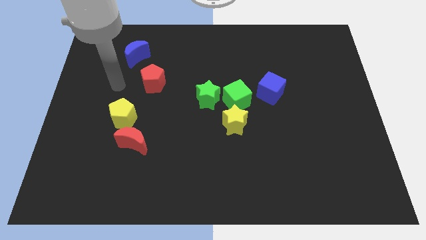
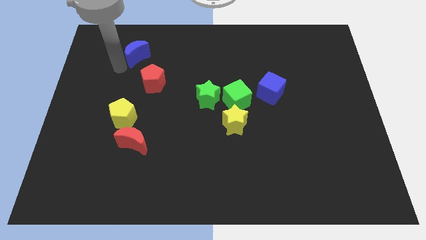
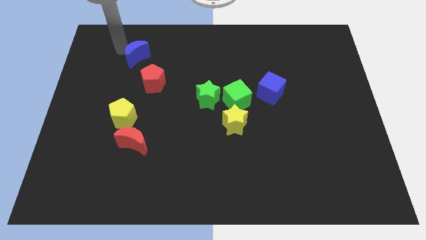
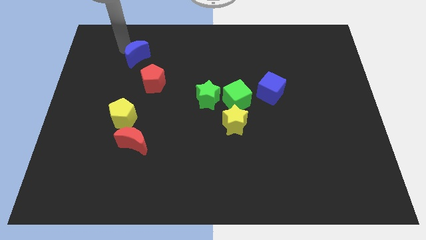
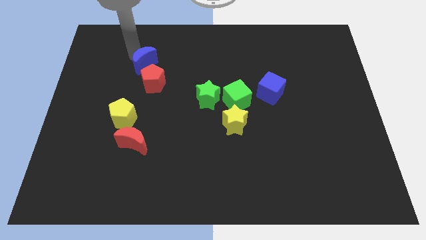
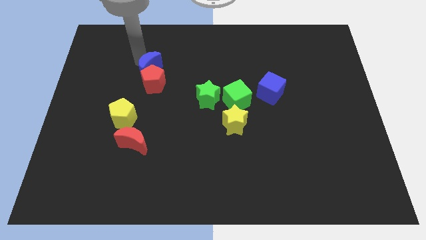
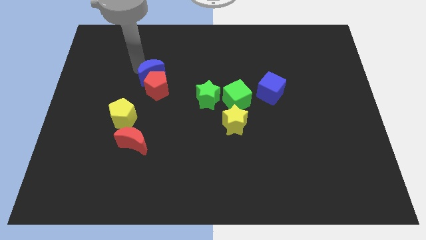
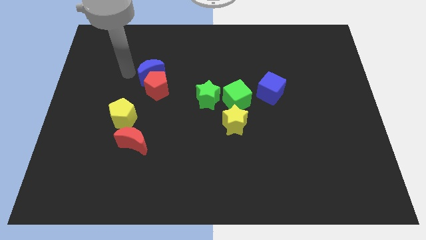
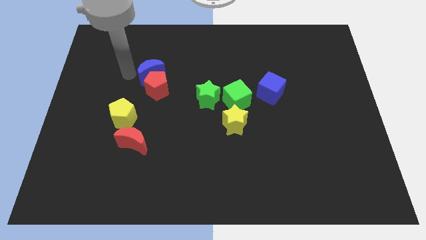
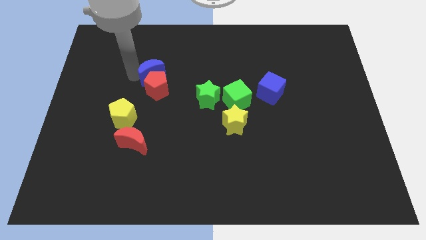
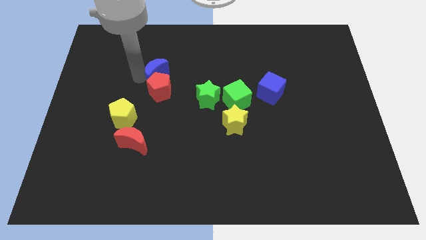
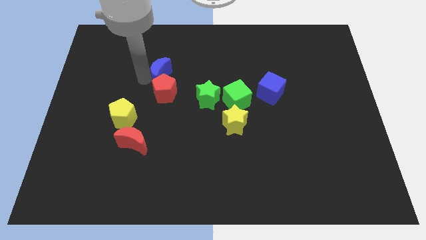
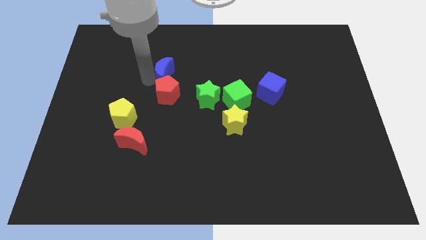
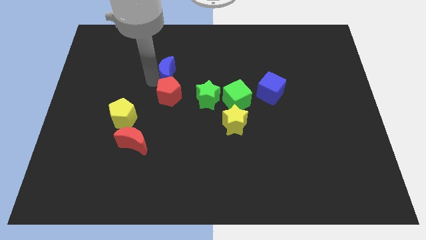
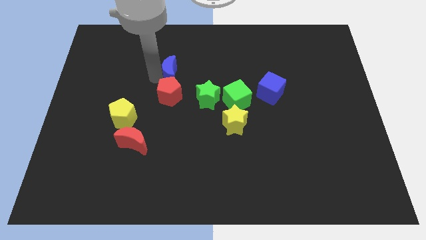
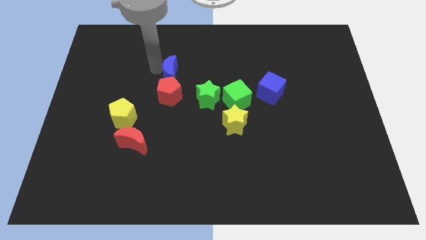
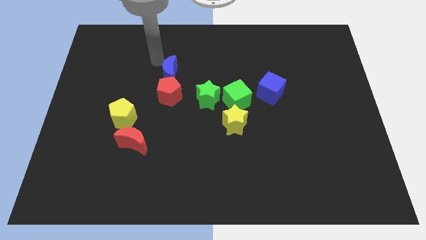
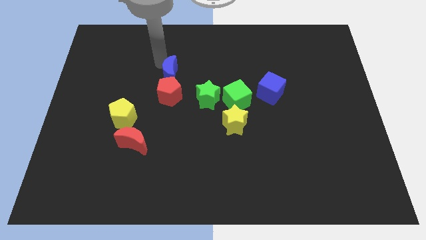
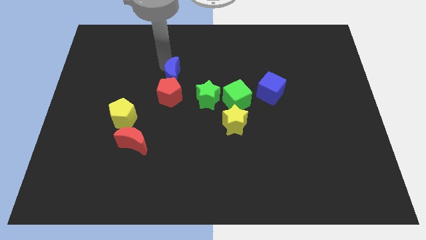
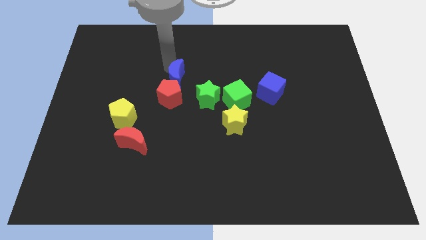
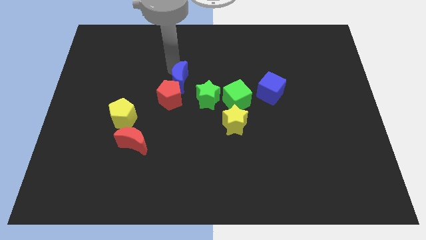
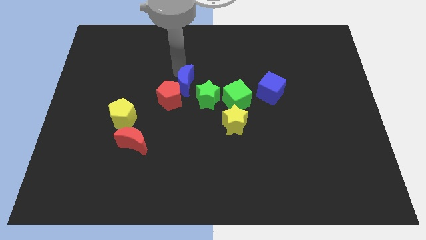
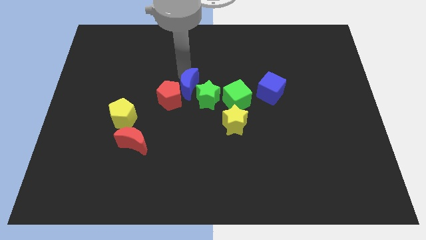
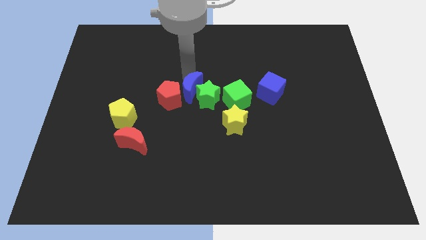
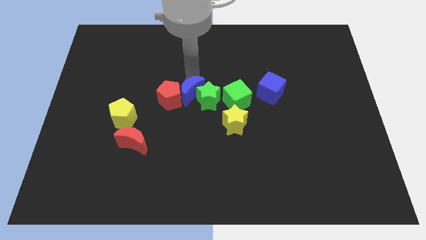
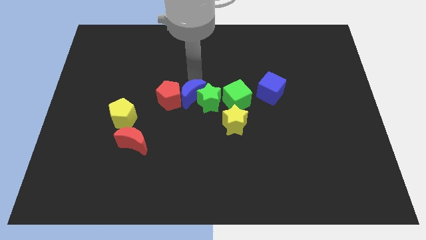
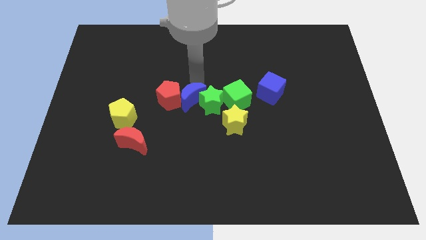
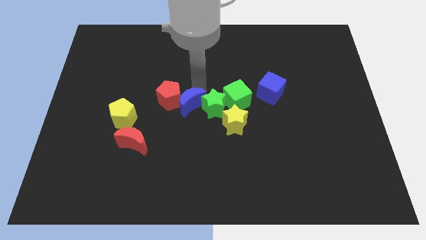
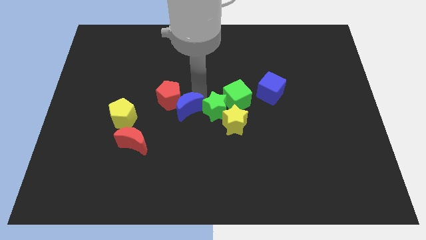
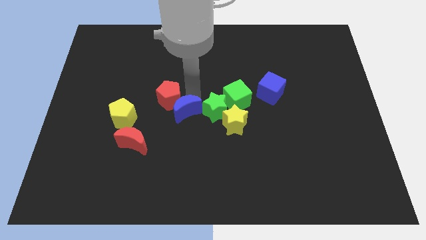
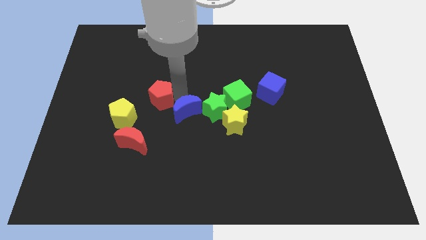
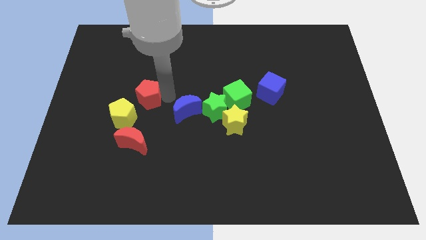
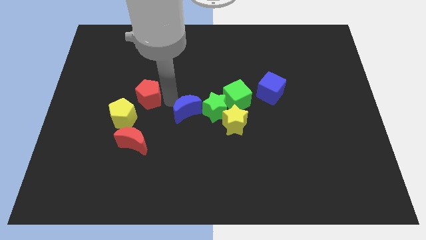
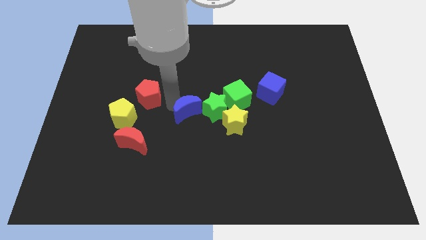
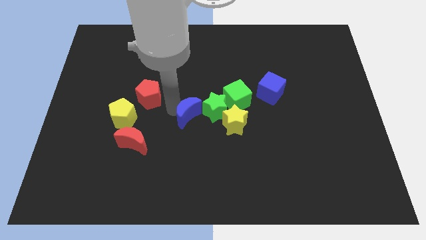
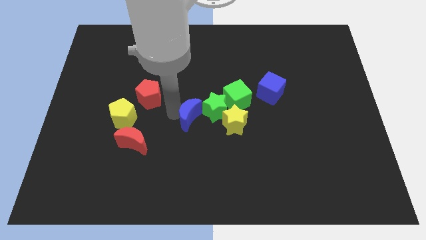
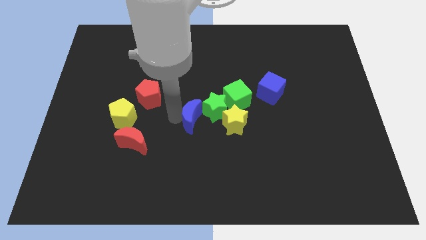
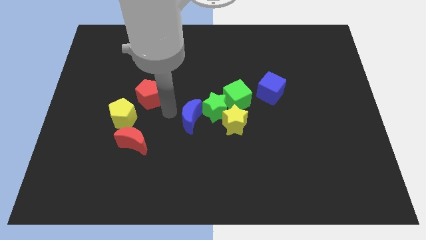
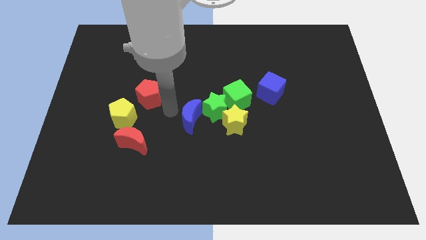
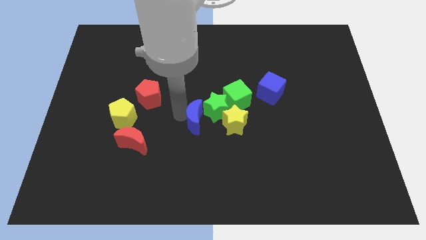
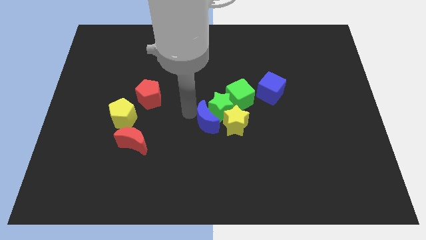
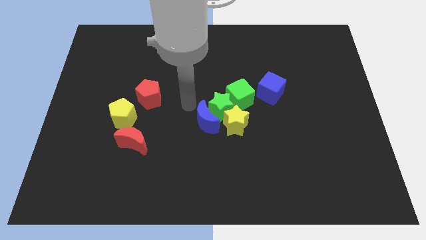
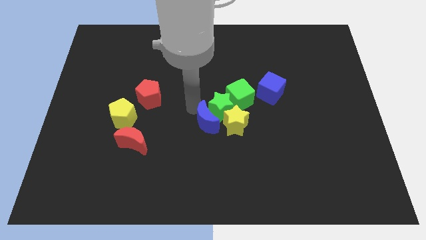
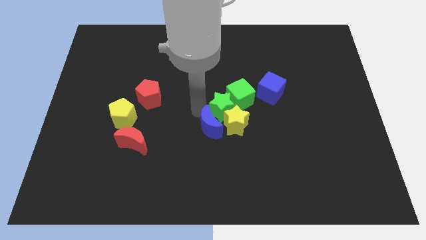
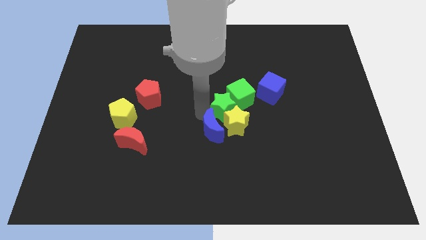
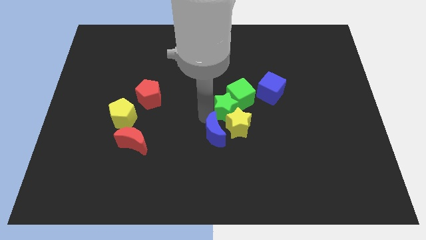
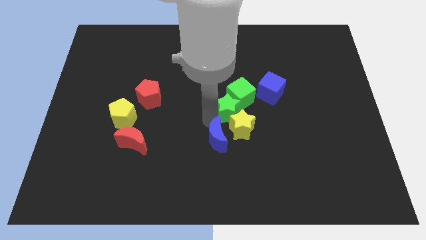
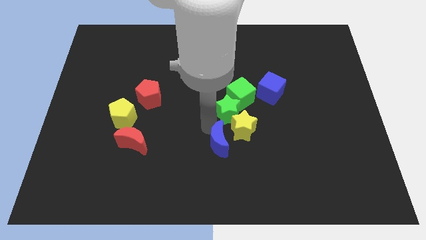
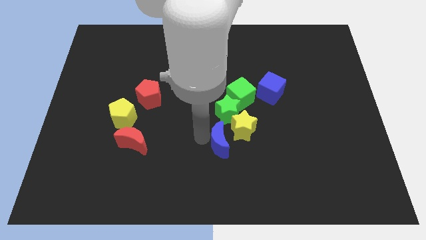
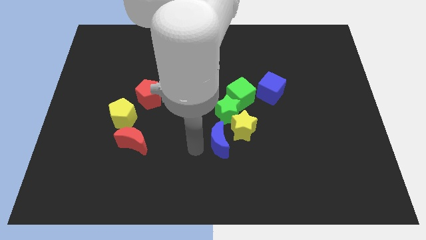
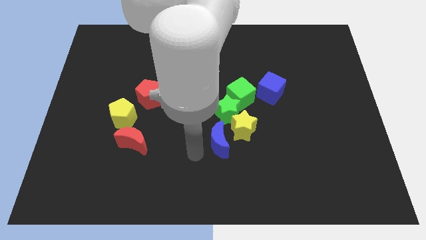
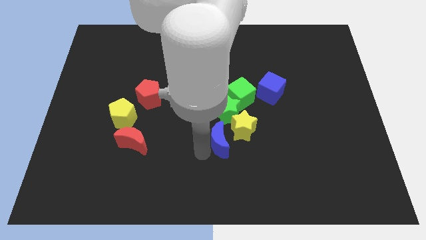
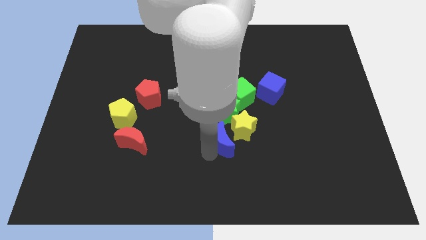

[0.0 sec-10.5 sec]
push the blue moon below the green cube

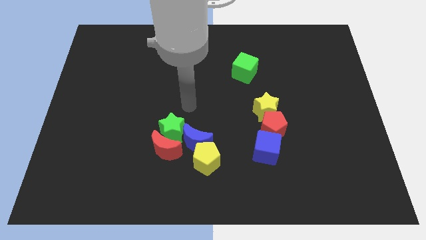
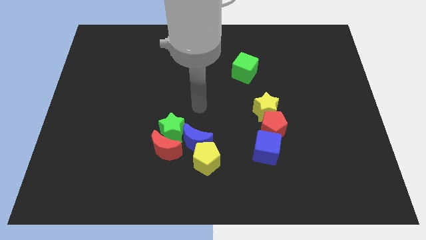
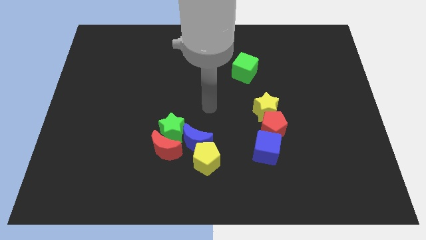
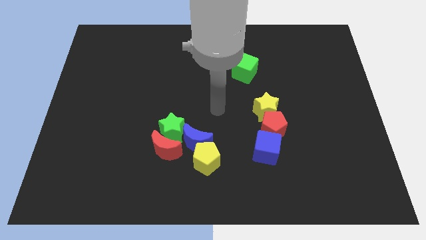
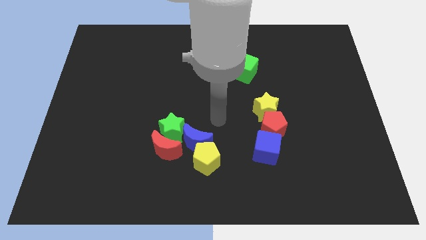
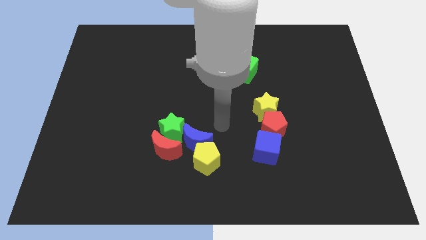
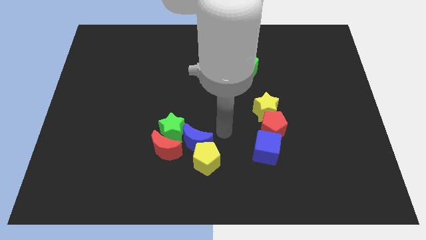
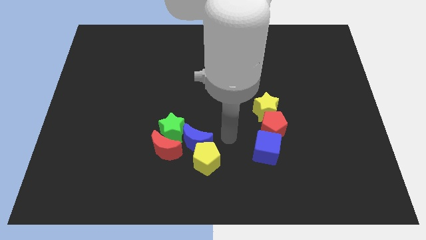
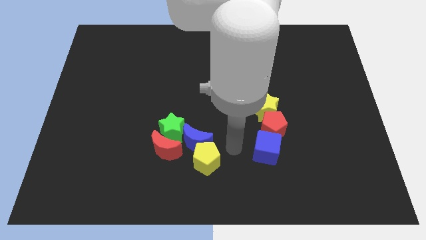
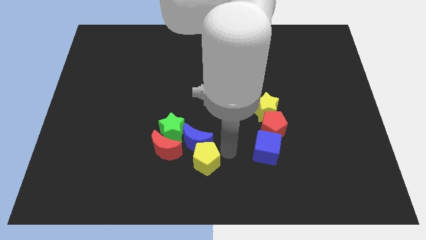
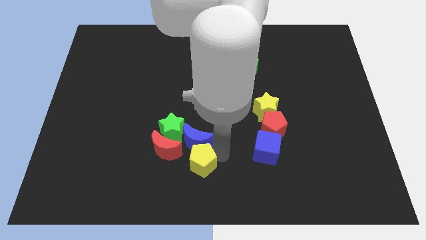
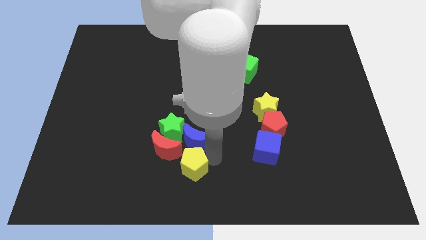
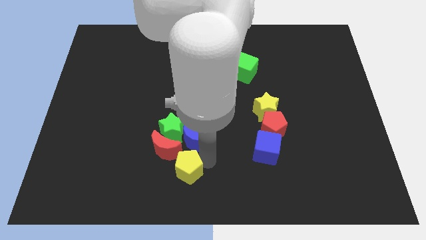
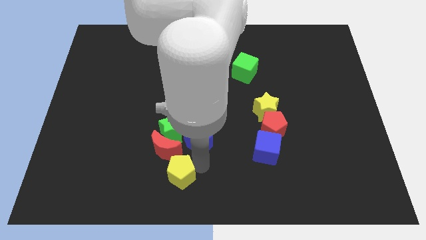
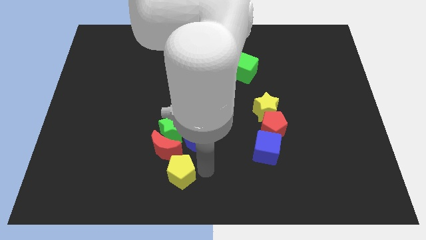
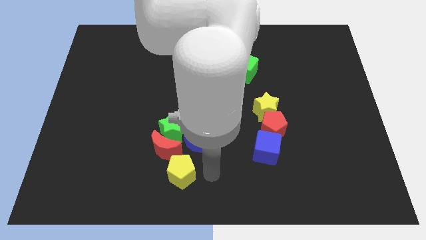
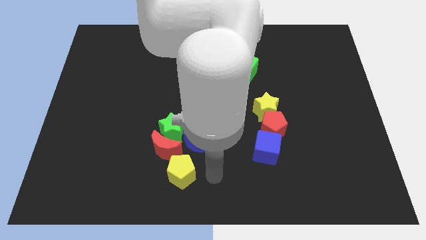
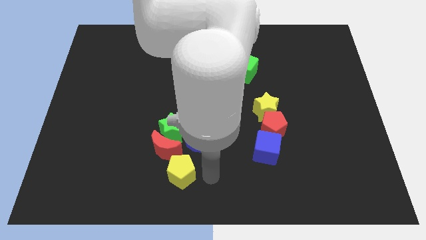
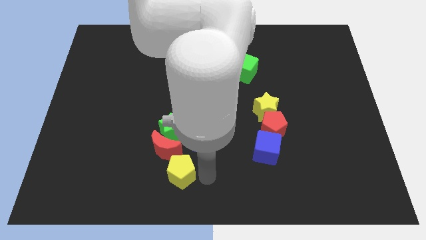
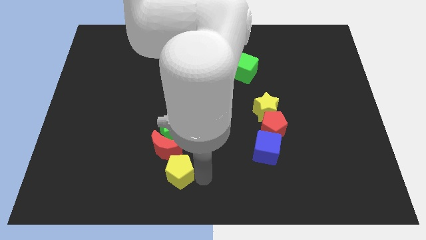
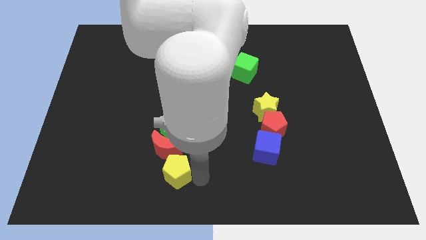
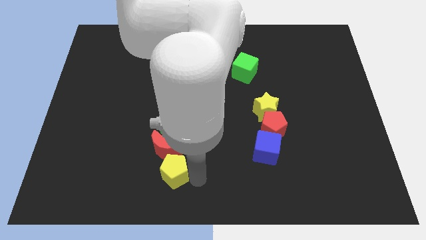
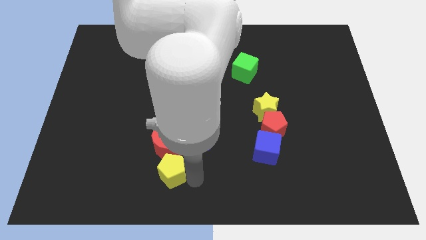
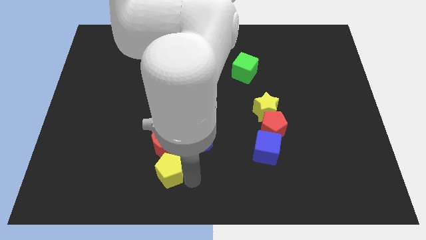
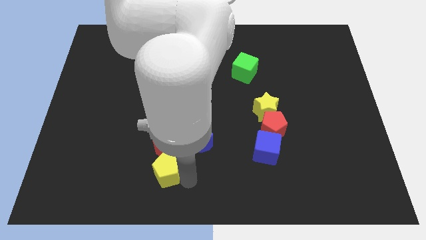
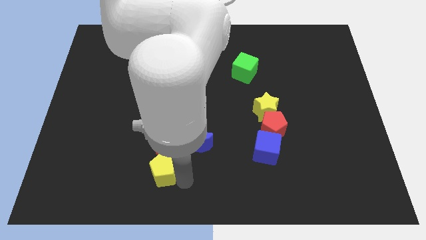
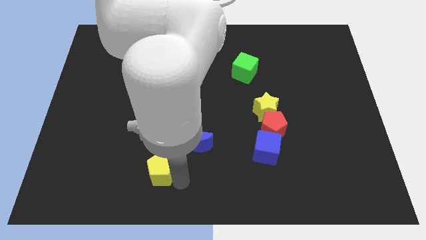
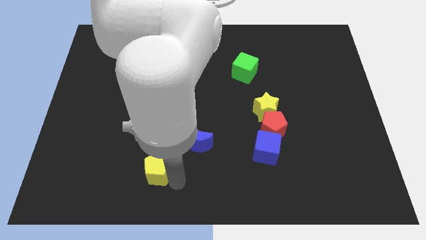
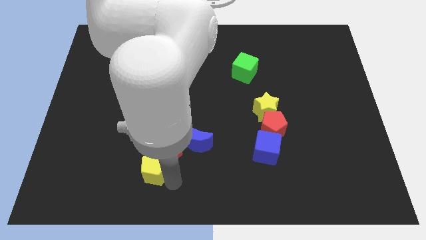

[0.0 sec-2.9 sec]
put the yellow pentagon to the bottom left side of the green star
